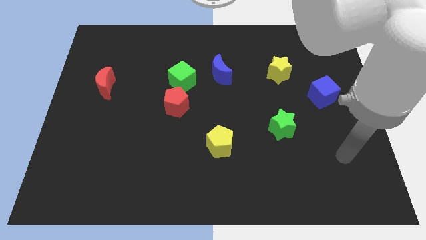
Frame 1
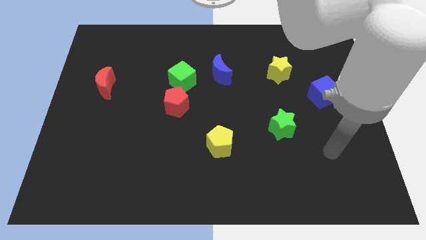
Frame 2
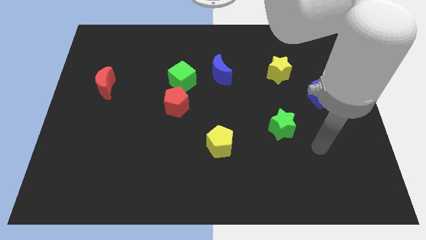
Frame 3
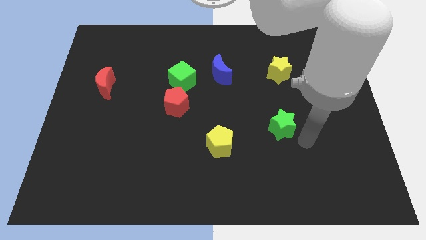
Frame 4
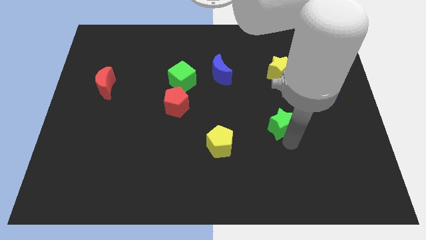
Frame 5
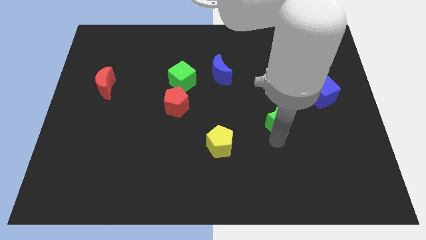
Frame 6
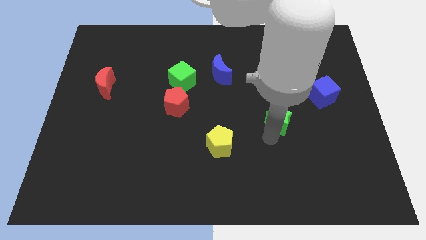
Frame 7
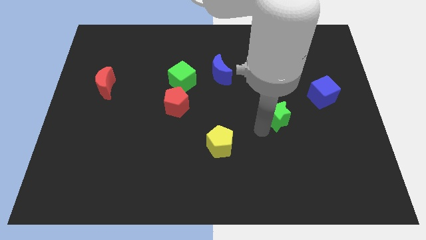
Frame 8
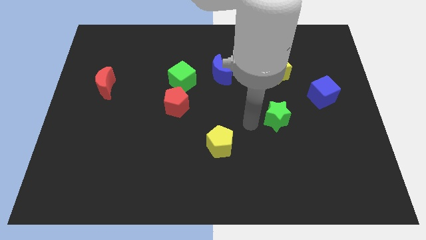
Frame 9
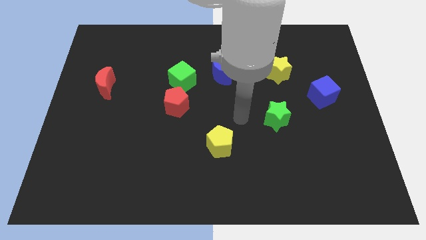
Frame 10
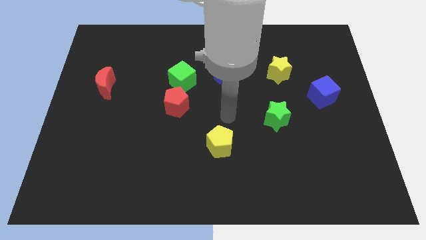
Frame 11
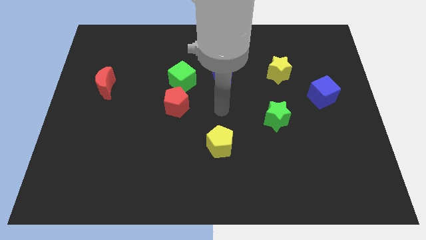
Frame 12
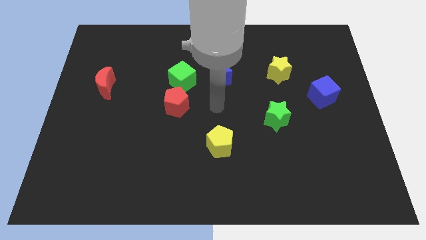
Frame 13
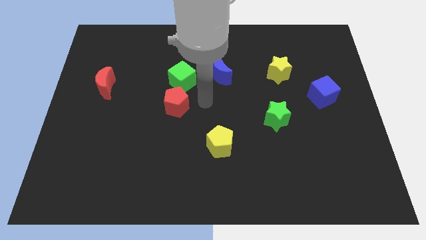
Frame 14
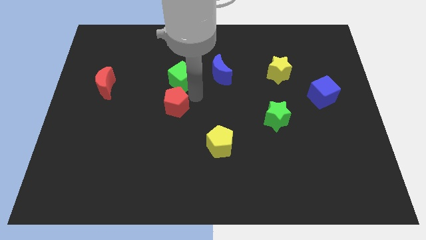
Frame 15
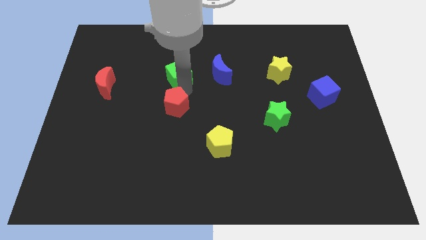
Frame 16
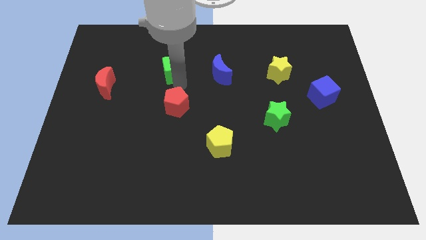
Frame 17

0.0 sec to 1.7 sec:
separate the red pentagon from the green cube

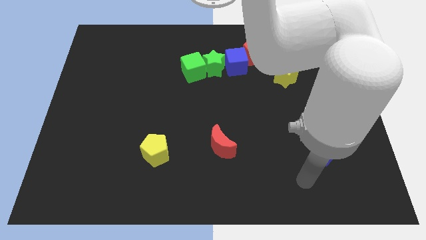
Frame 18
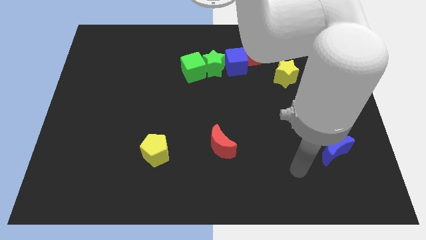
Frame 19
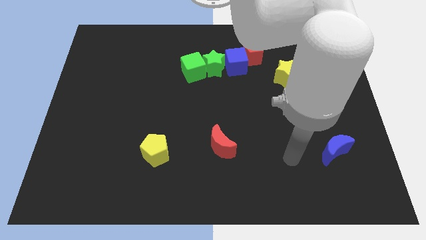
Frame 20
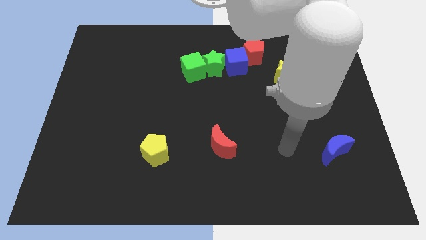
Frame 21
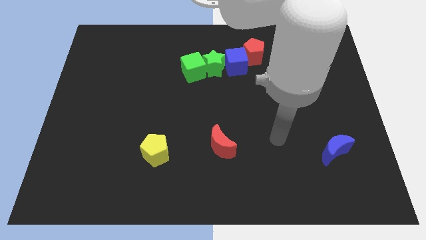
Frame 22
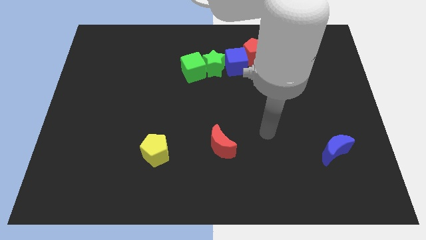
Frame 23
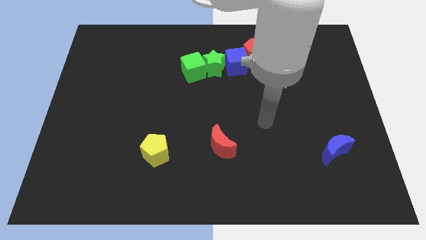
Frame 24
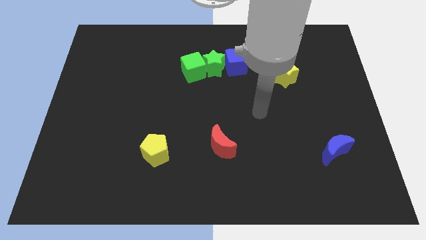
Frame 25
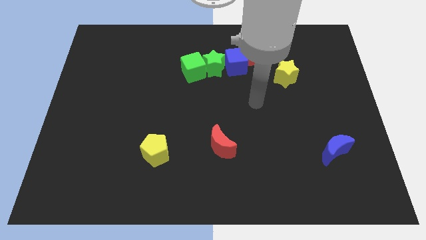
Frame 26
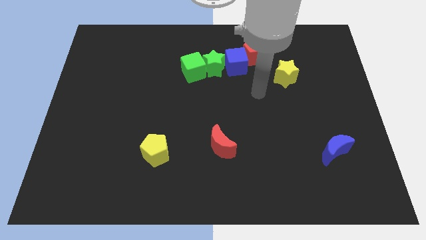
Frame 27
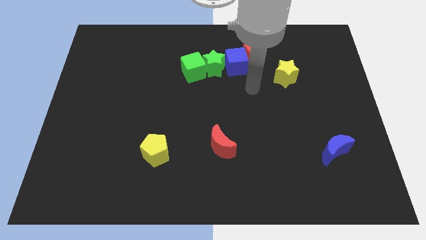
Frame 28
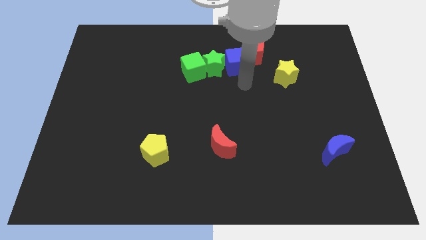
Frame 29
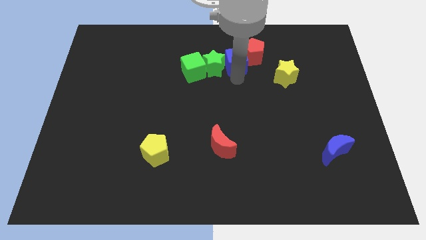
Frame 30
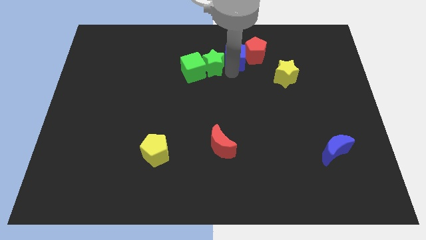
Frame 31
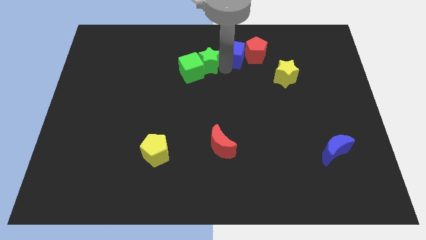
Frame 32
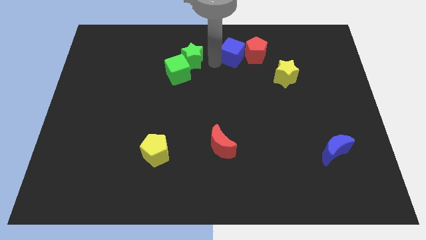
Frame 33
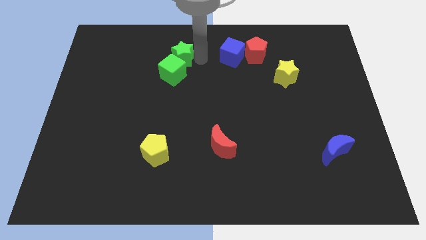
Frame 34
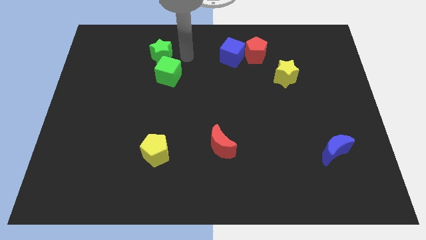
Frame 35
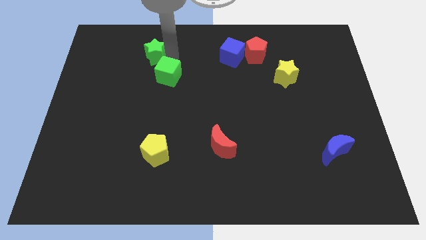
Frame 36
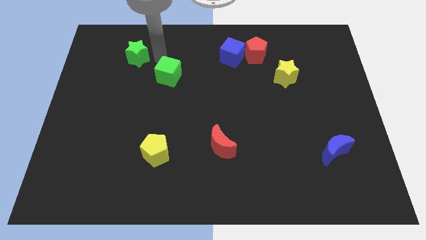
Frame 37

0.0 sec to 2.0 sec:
move the green cube away from the green star

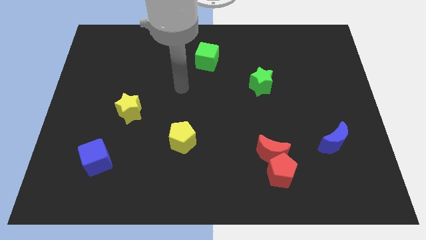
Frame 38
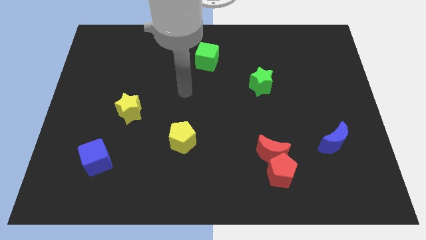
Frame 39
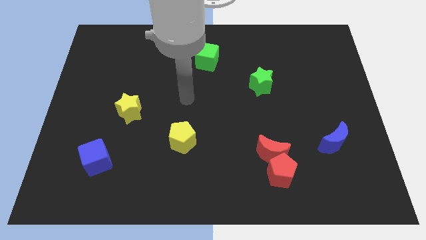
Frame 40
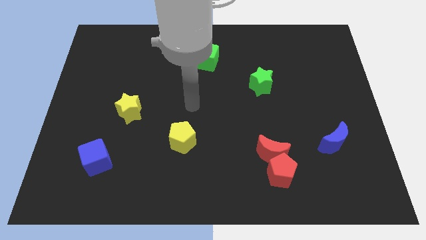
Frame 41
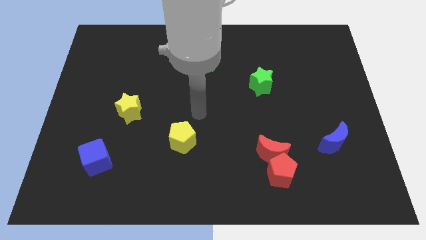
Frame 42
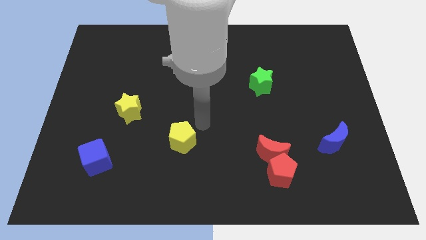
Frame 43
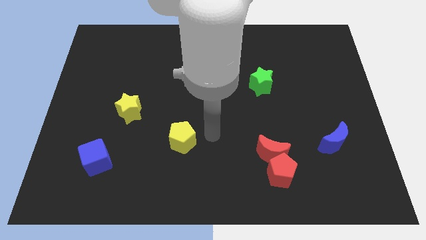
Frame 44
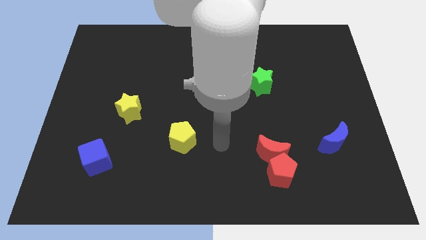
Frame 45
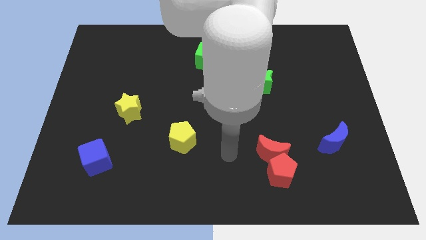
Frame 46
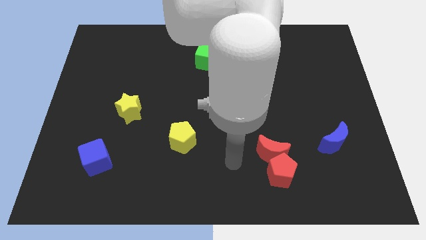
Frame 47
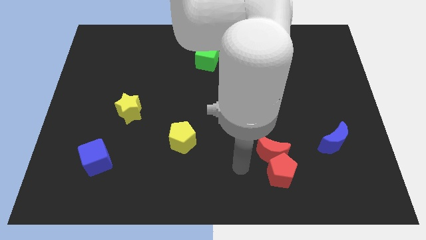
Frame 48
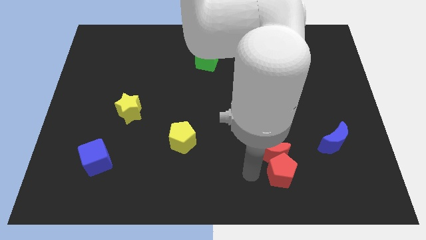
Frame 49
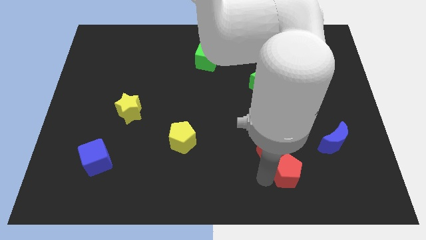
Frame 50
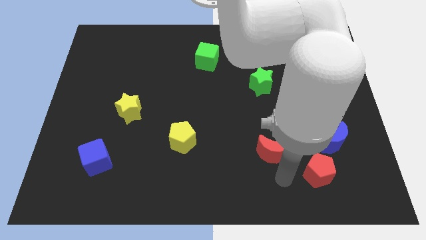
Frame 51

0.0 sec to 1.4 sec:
separate the red moon from the red pentagon

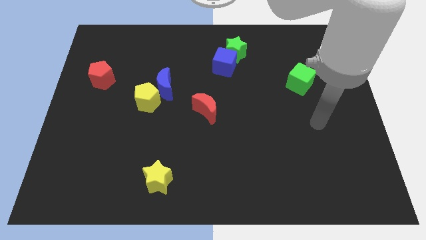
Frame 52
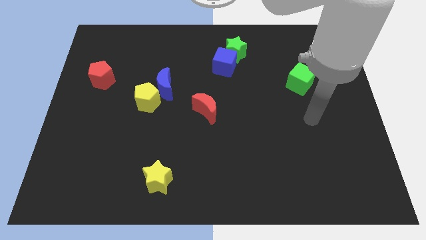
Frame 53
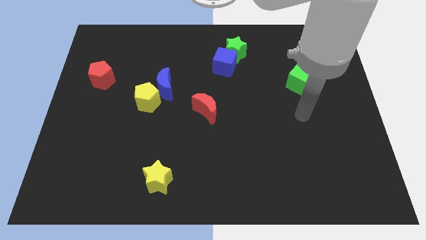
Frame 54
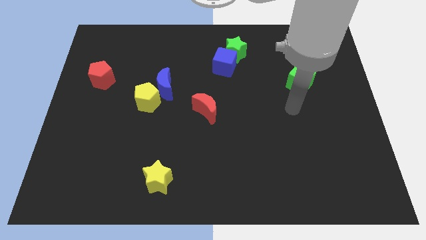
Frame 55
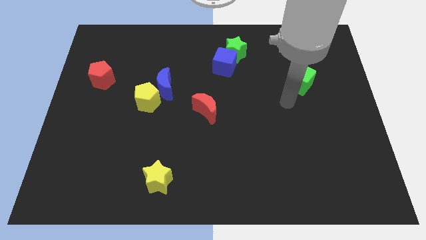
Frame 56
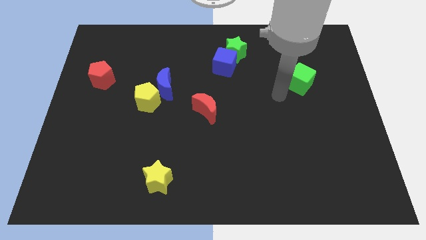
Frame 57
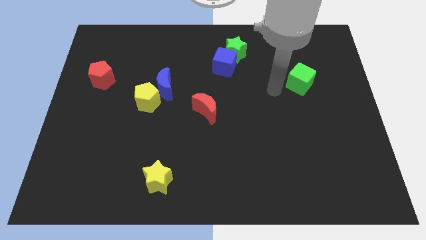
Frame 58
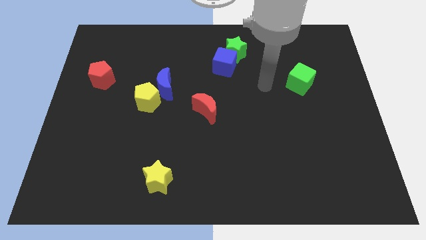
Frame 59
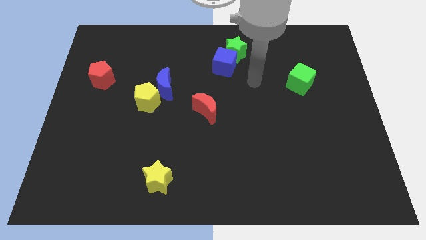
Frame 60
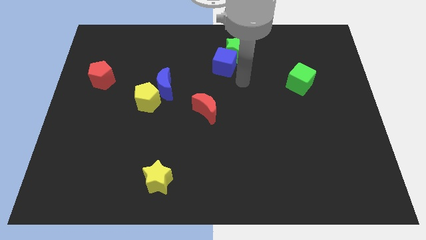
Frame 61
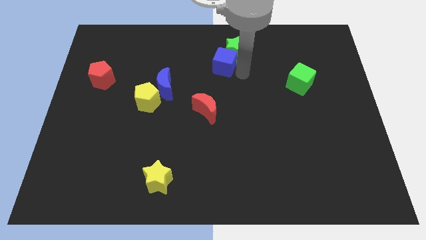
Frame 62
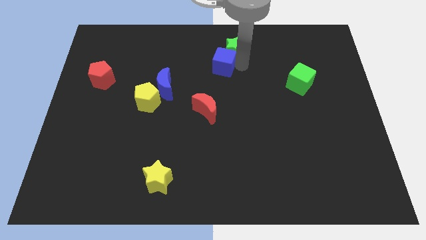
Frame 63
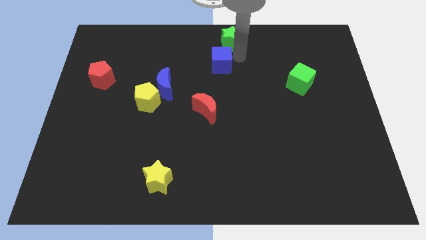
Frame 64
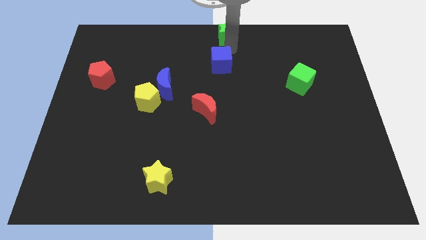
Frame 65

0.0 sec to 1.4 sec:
pull the blue cube apart from the green star

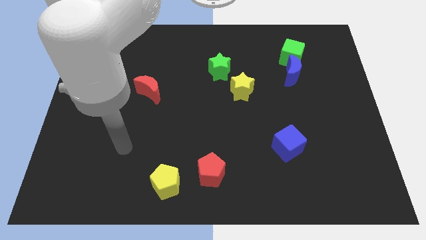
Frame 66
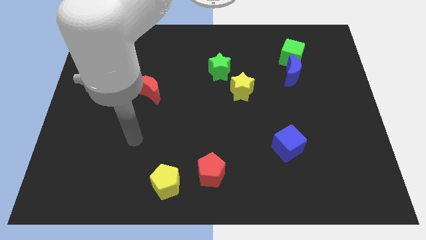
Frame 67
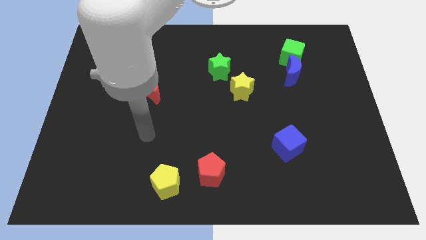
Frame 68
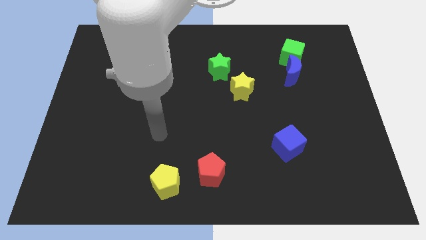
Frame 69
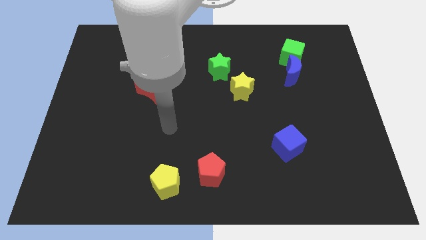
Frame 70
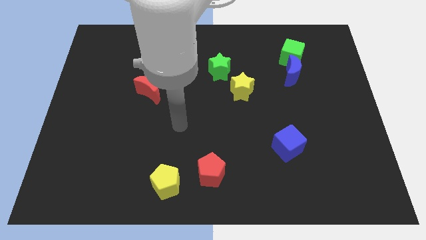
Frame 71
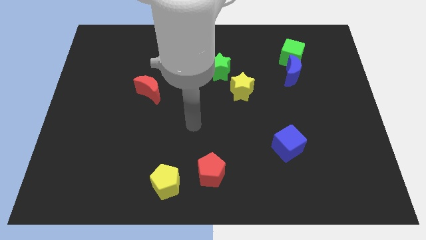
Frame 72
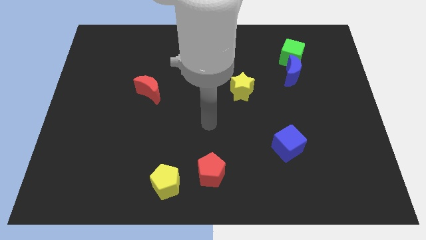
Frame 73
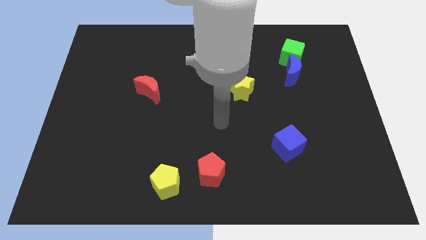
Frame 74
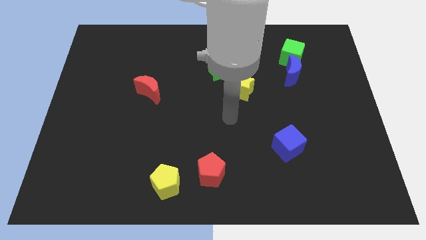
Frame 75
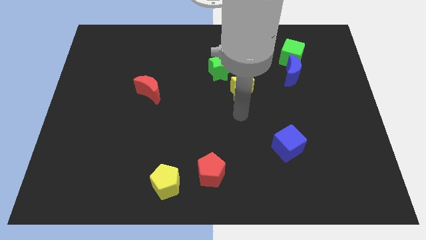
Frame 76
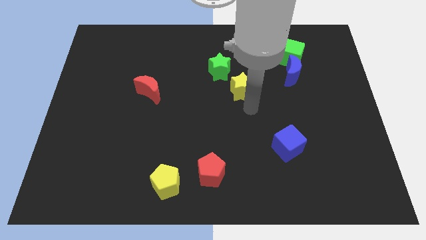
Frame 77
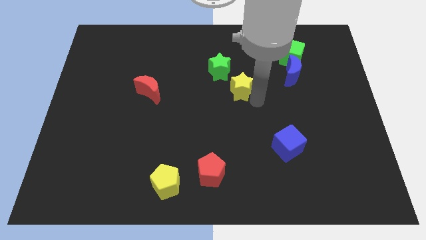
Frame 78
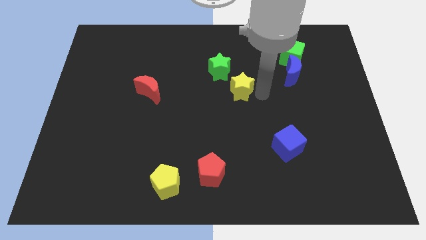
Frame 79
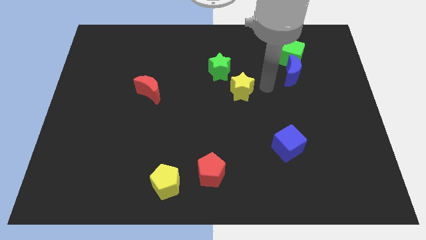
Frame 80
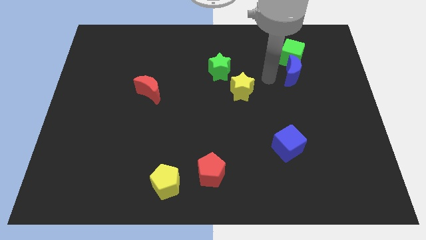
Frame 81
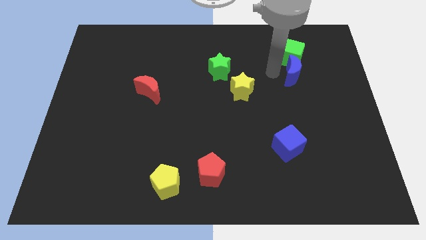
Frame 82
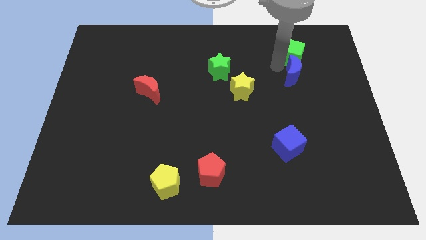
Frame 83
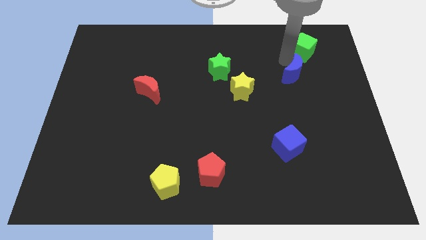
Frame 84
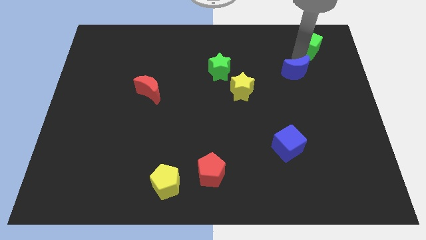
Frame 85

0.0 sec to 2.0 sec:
move the blue moon away from the green cube

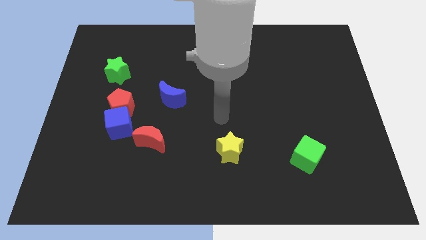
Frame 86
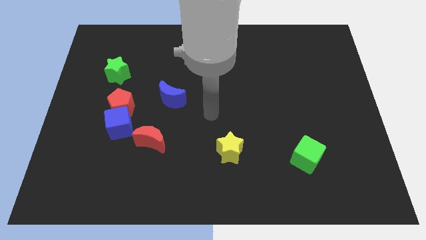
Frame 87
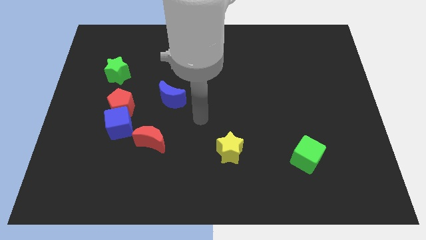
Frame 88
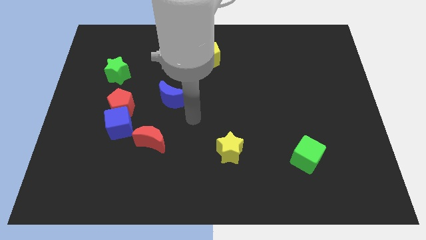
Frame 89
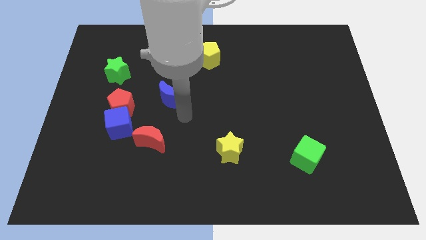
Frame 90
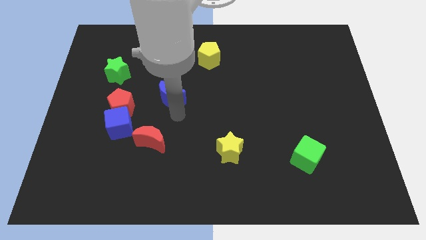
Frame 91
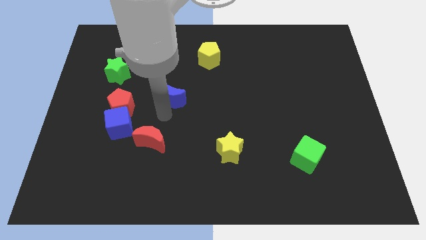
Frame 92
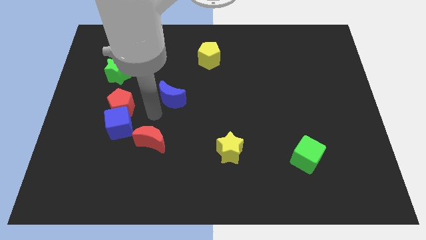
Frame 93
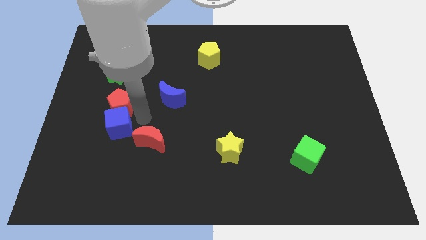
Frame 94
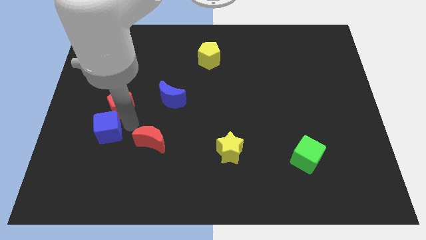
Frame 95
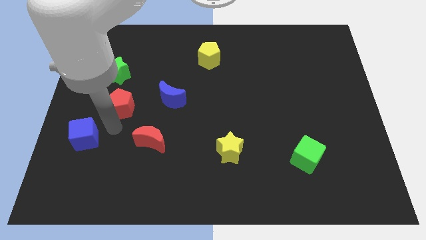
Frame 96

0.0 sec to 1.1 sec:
pull the red pentagon apart from the blue cube
